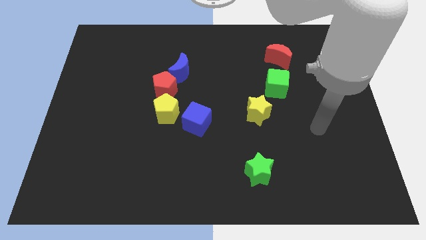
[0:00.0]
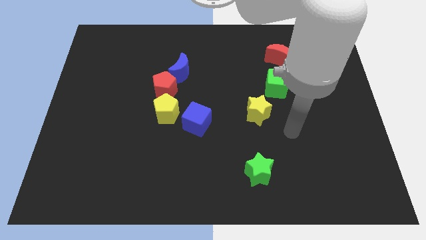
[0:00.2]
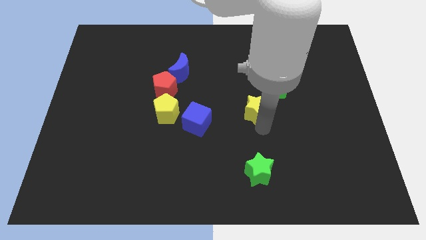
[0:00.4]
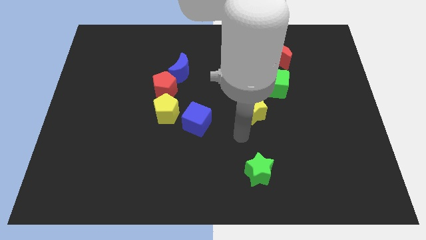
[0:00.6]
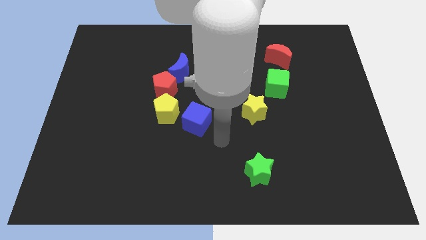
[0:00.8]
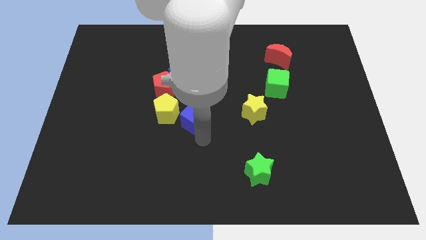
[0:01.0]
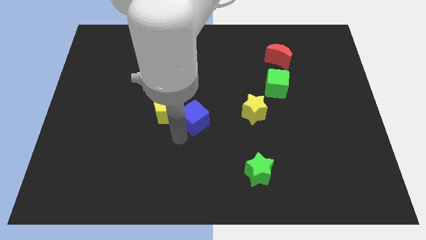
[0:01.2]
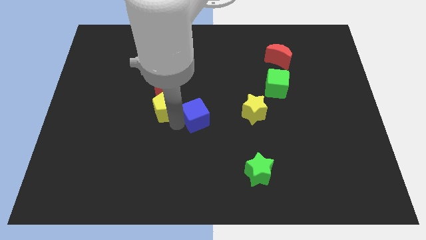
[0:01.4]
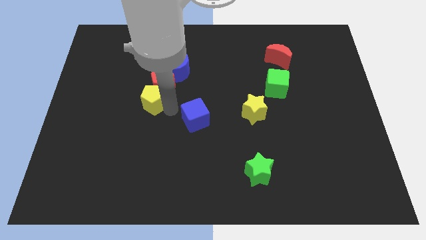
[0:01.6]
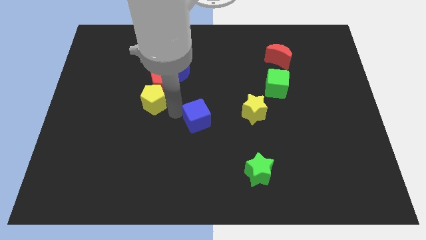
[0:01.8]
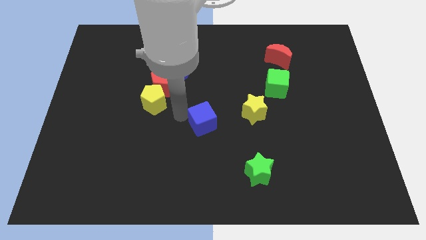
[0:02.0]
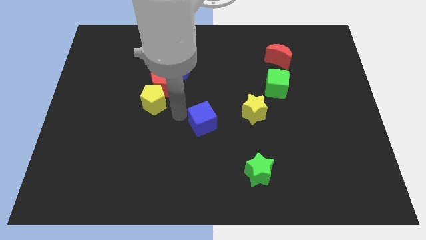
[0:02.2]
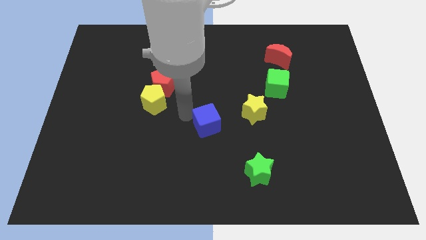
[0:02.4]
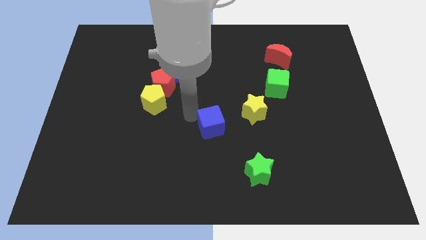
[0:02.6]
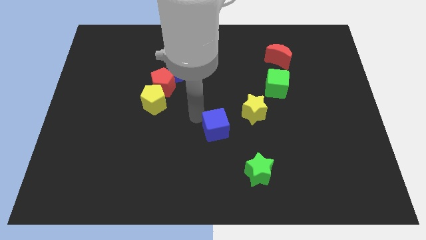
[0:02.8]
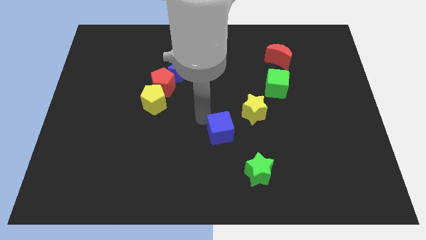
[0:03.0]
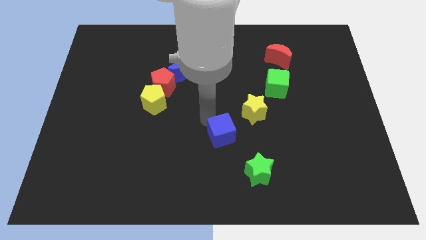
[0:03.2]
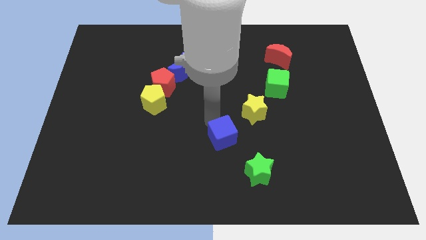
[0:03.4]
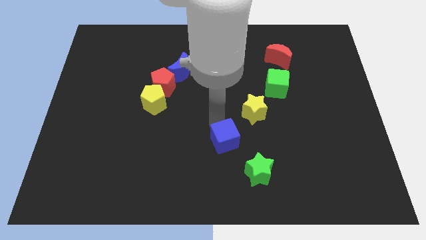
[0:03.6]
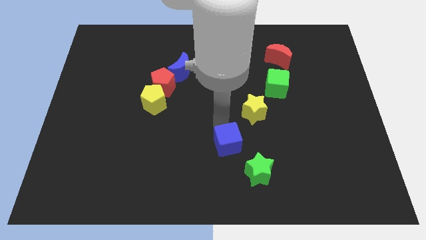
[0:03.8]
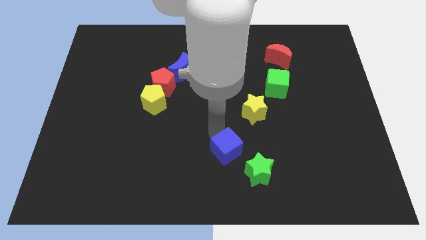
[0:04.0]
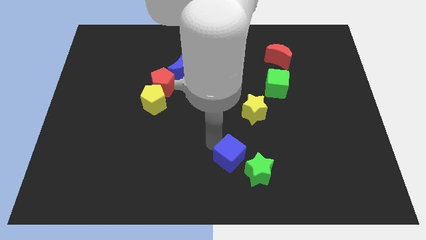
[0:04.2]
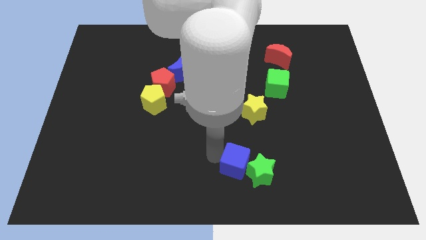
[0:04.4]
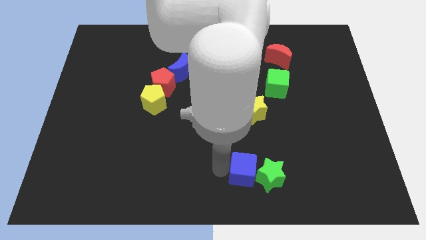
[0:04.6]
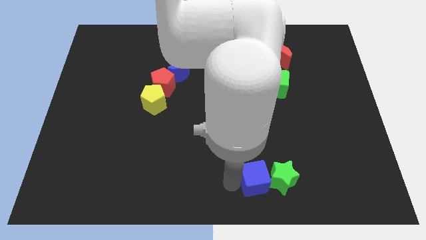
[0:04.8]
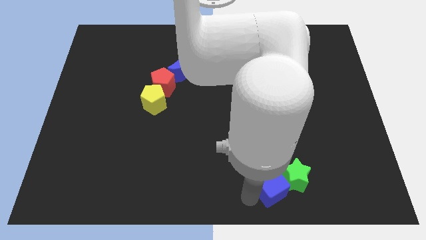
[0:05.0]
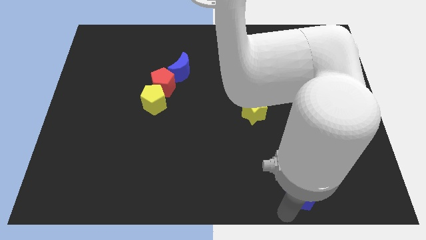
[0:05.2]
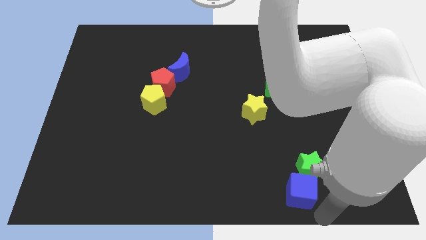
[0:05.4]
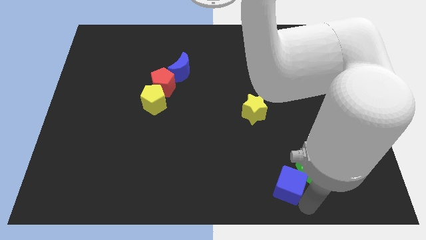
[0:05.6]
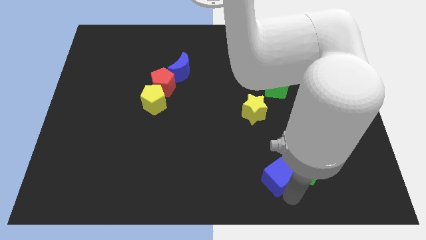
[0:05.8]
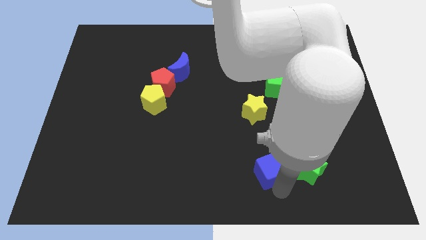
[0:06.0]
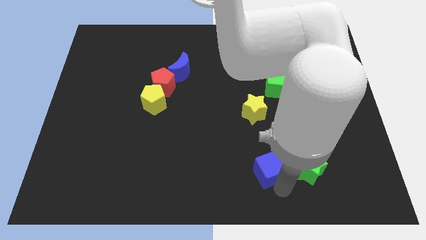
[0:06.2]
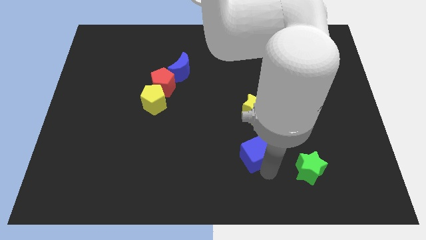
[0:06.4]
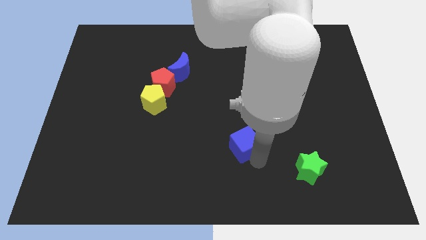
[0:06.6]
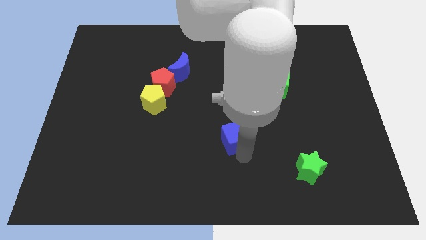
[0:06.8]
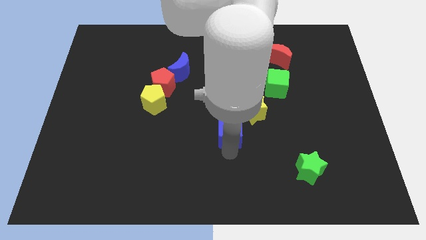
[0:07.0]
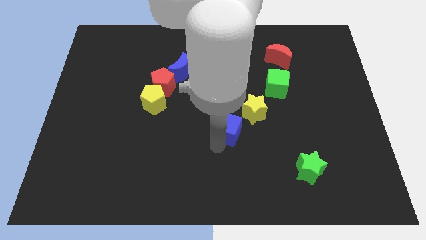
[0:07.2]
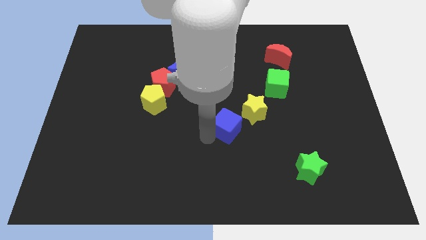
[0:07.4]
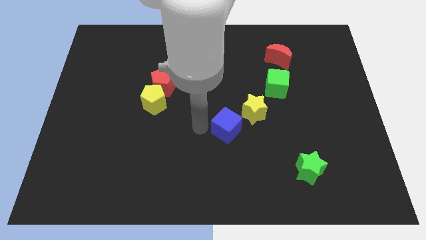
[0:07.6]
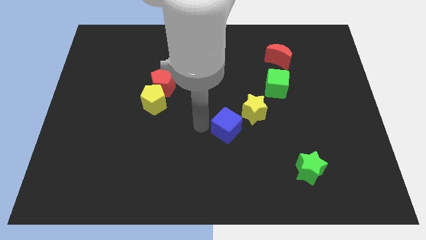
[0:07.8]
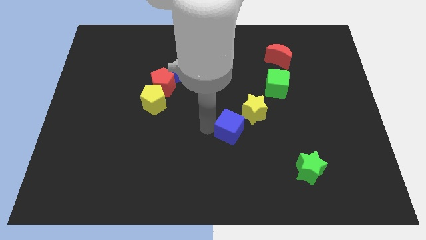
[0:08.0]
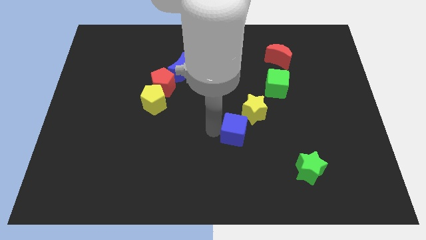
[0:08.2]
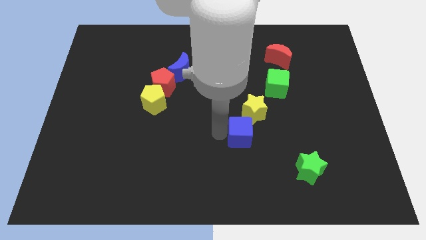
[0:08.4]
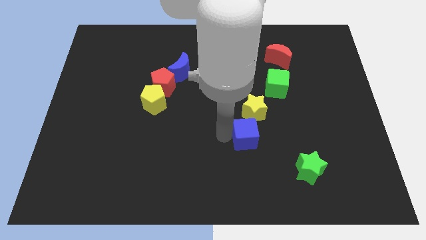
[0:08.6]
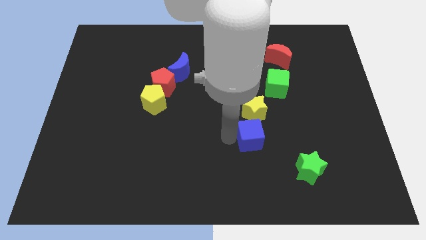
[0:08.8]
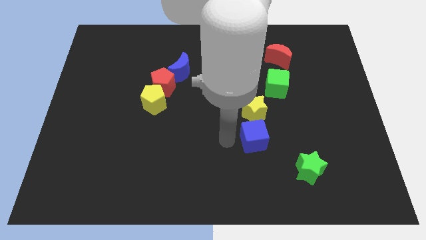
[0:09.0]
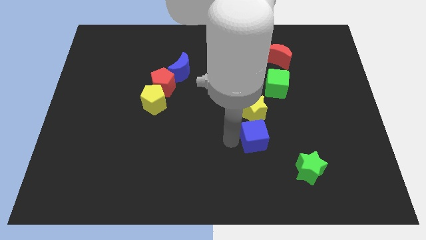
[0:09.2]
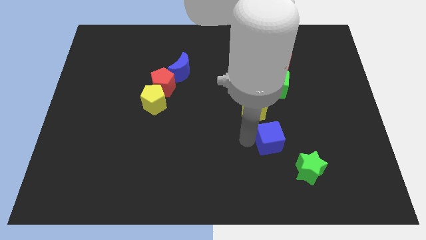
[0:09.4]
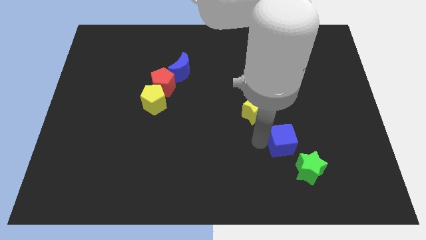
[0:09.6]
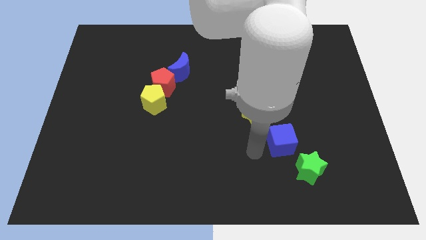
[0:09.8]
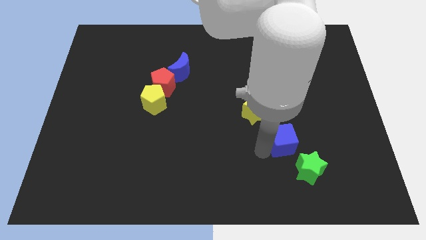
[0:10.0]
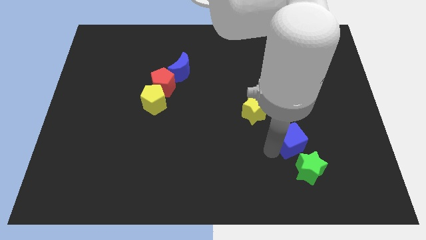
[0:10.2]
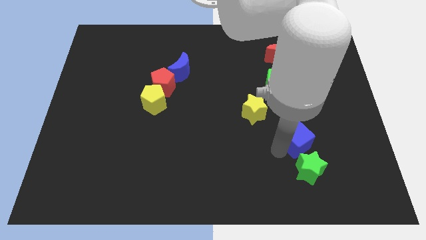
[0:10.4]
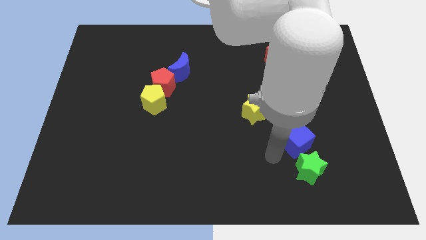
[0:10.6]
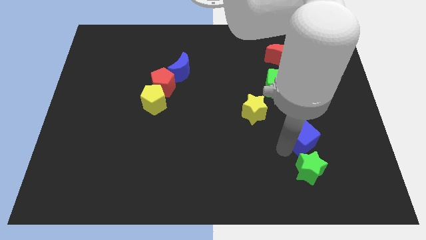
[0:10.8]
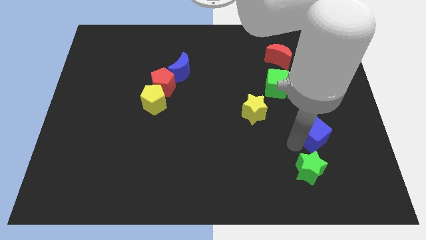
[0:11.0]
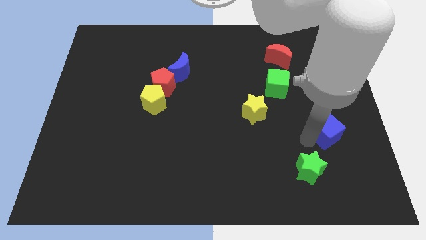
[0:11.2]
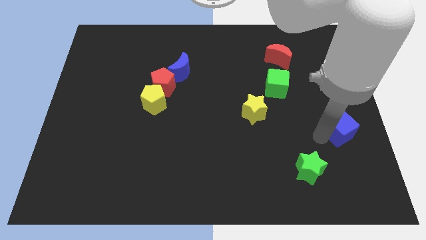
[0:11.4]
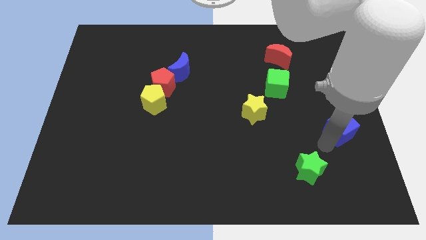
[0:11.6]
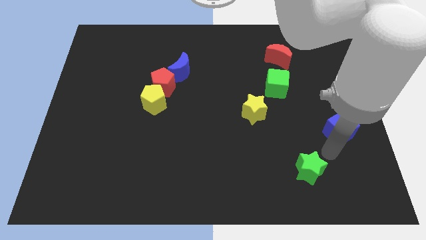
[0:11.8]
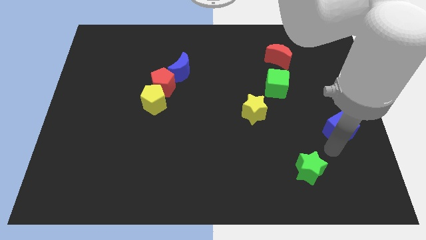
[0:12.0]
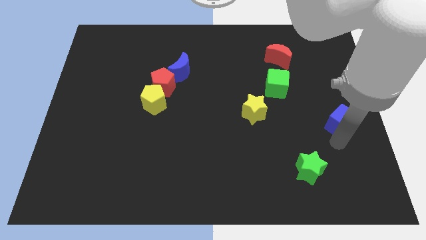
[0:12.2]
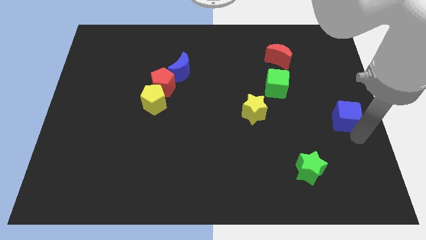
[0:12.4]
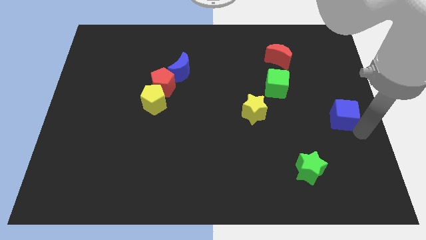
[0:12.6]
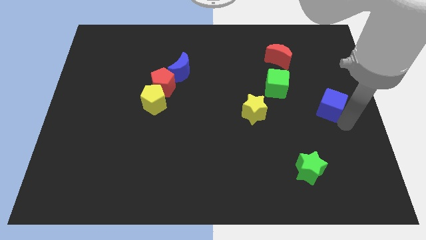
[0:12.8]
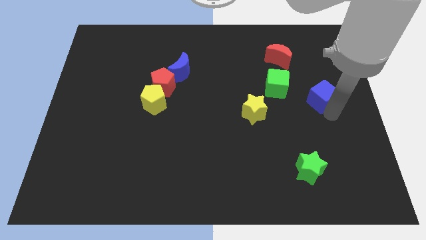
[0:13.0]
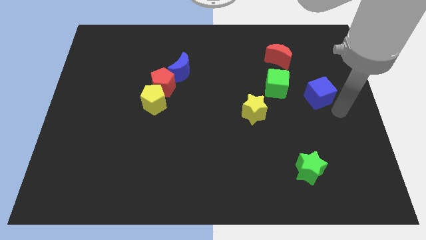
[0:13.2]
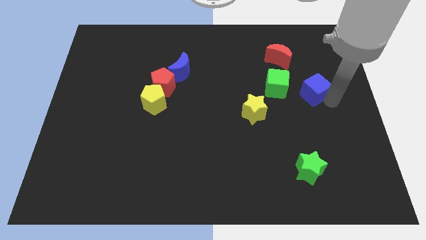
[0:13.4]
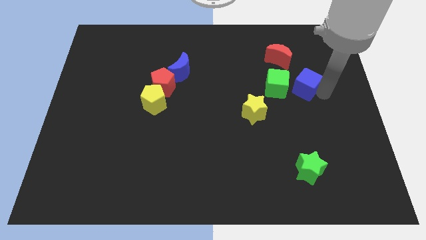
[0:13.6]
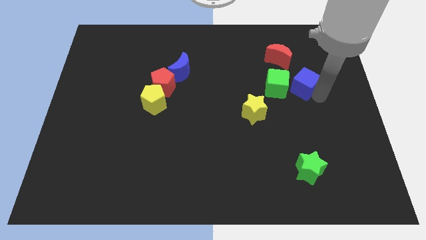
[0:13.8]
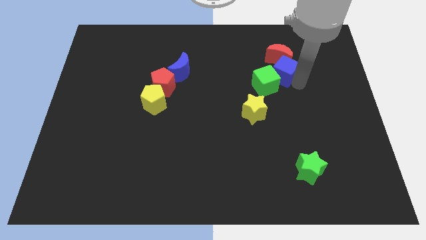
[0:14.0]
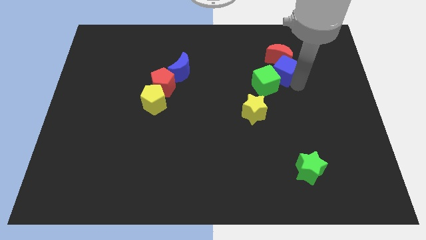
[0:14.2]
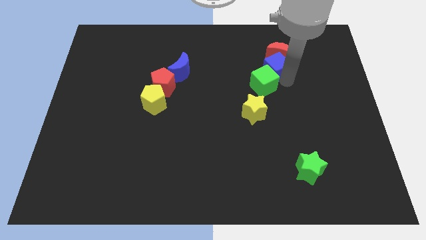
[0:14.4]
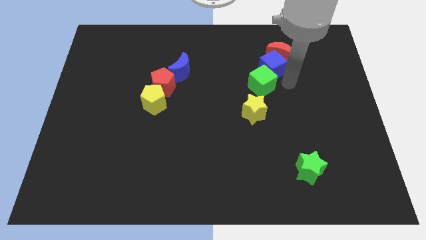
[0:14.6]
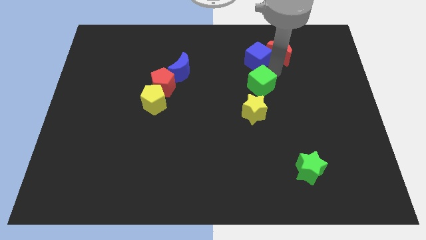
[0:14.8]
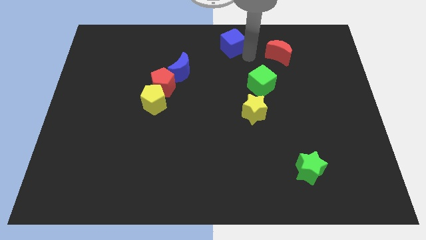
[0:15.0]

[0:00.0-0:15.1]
push the blue cube to the top

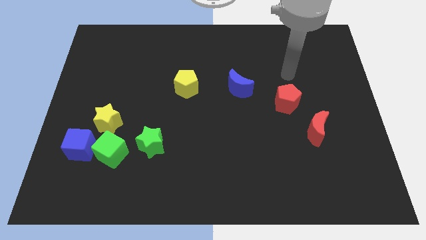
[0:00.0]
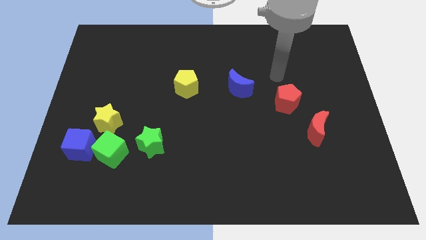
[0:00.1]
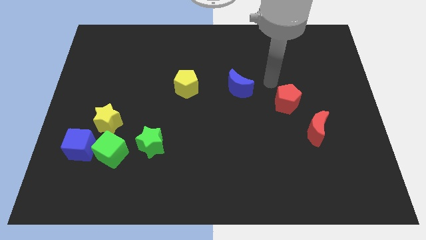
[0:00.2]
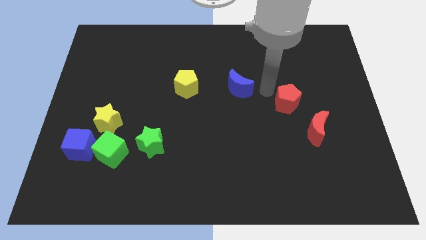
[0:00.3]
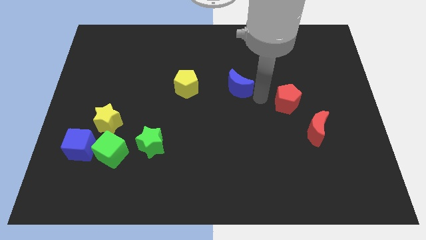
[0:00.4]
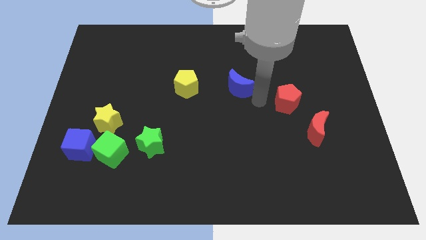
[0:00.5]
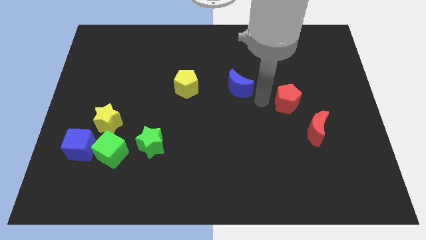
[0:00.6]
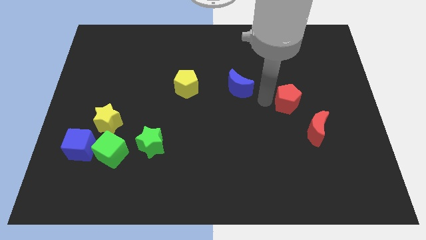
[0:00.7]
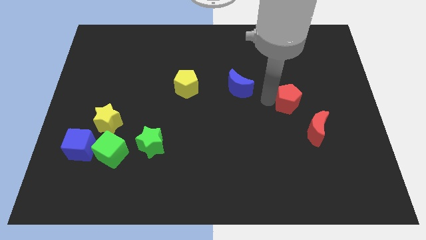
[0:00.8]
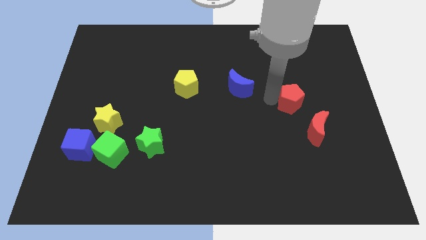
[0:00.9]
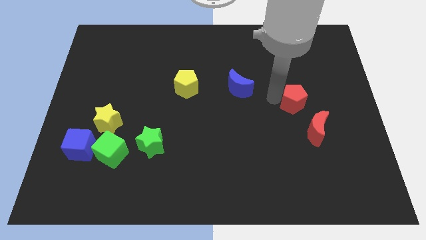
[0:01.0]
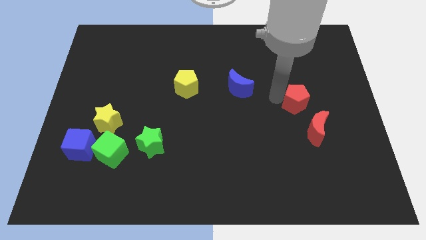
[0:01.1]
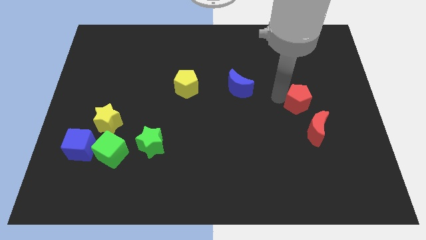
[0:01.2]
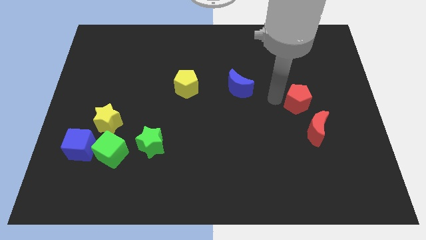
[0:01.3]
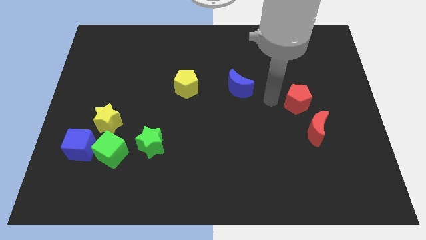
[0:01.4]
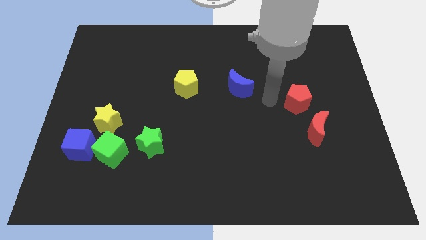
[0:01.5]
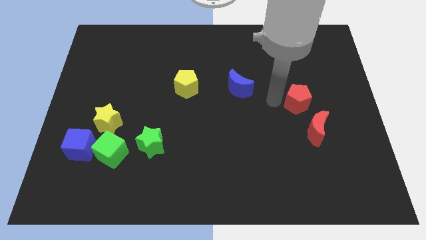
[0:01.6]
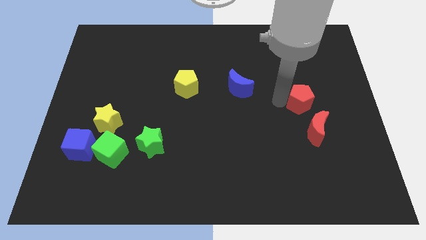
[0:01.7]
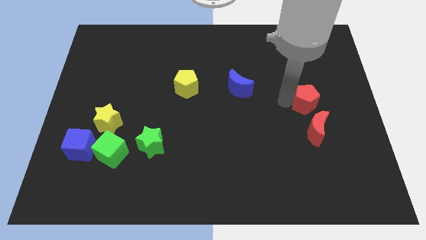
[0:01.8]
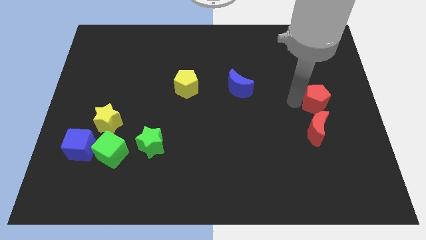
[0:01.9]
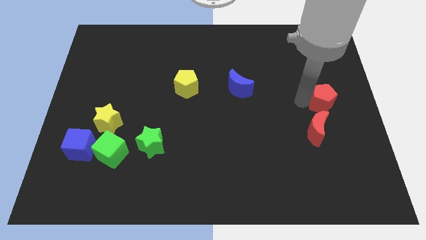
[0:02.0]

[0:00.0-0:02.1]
push the red pentagon to the center right
